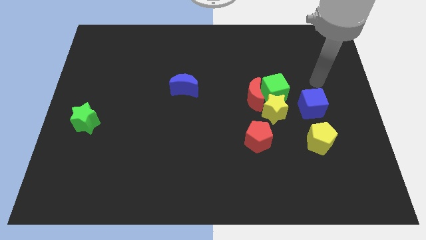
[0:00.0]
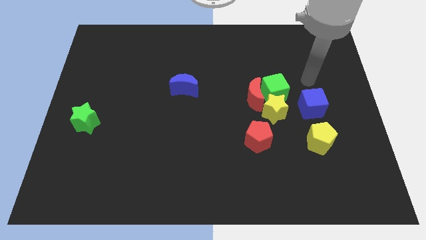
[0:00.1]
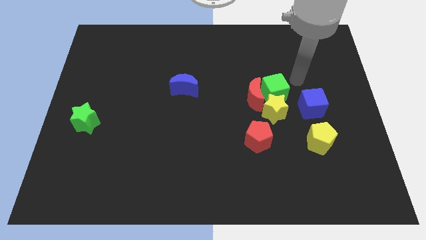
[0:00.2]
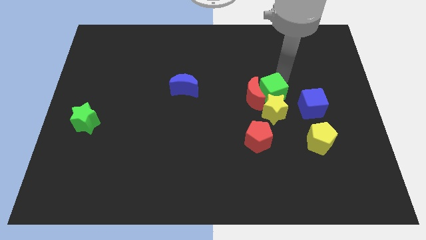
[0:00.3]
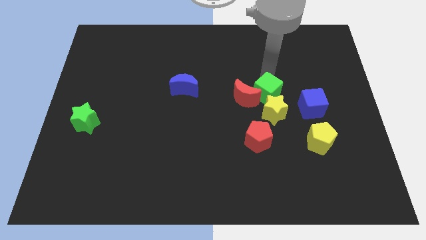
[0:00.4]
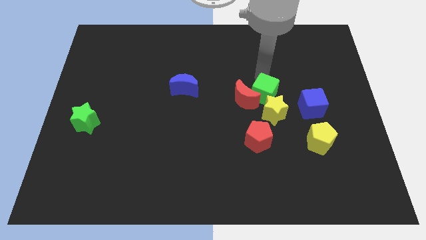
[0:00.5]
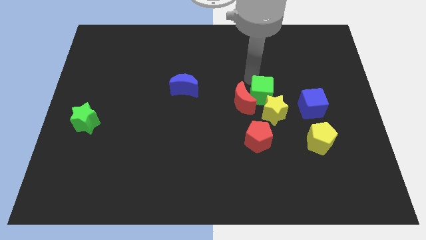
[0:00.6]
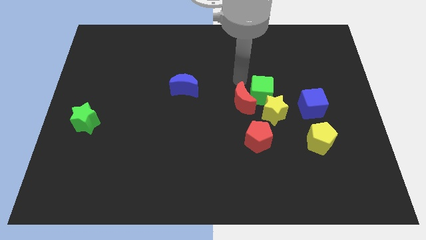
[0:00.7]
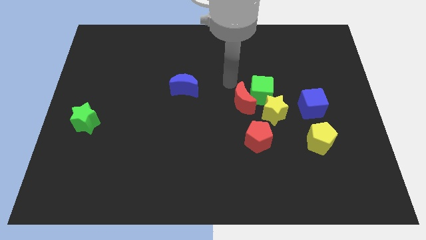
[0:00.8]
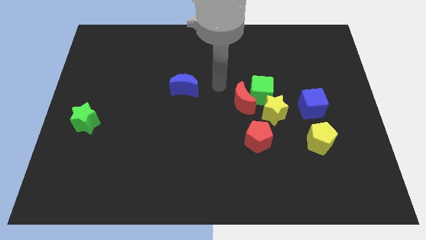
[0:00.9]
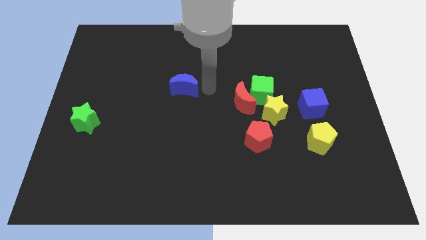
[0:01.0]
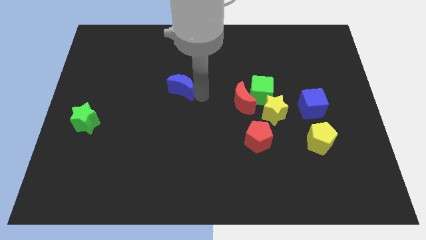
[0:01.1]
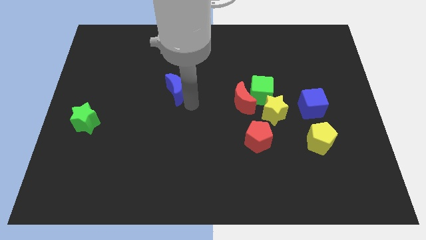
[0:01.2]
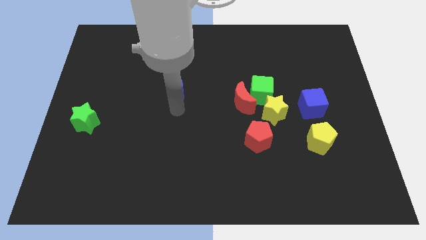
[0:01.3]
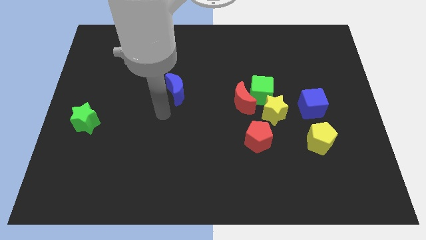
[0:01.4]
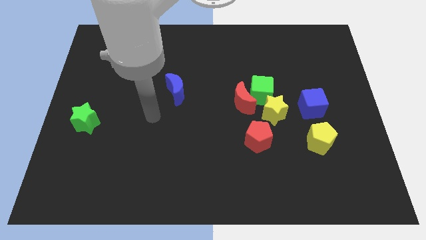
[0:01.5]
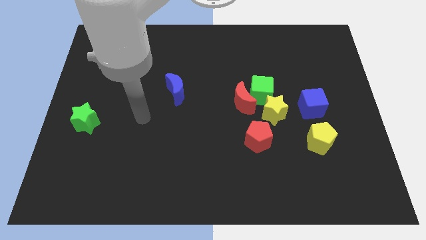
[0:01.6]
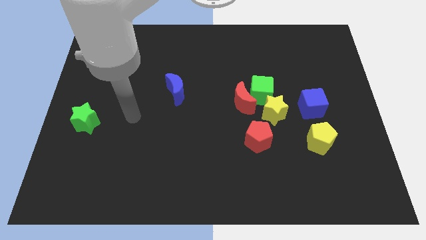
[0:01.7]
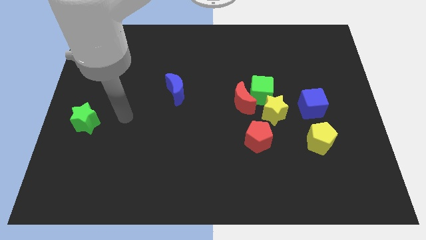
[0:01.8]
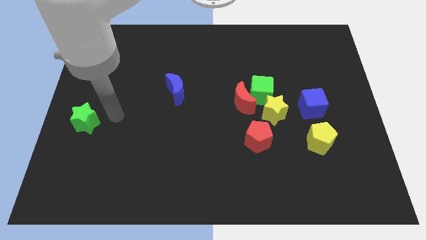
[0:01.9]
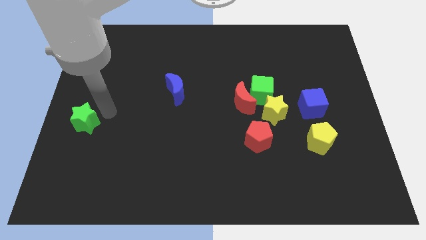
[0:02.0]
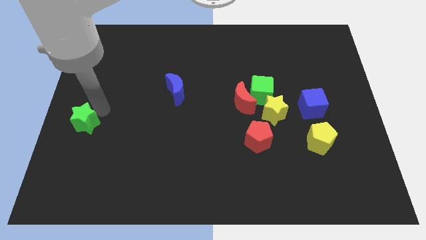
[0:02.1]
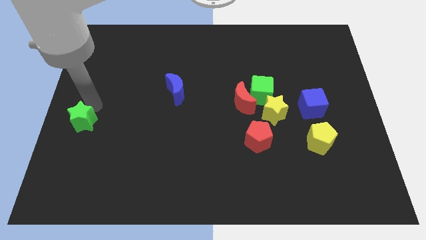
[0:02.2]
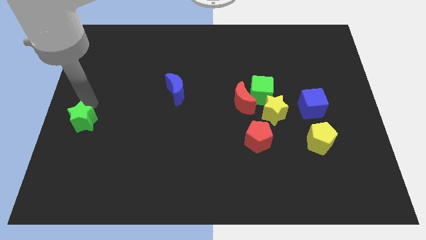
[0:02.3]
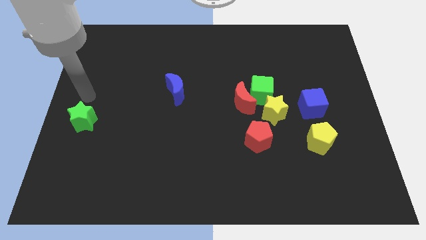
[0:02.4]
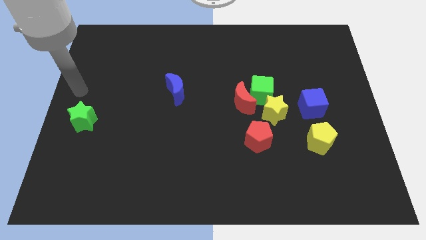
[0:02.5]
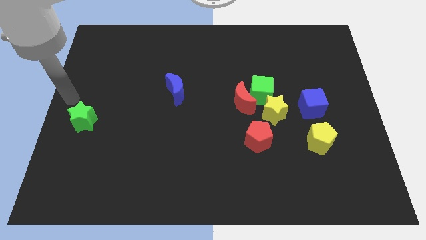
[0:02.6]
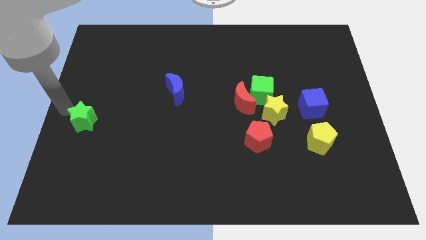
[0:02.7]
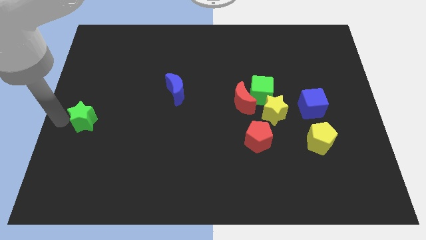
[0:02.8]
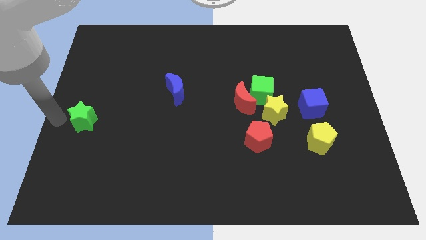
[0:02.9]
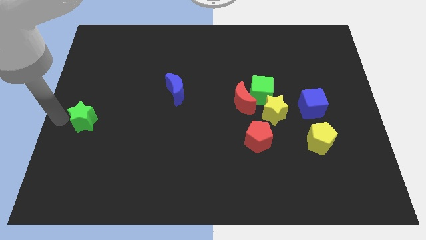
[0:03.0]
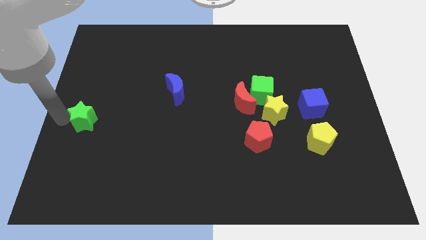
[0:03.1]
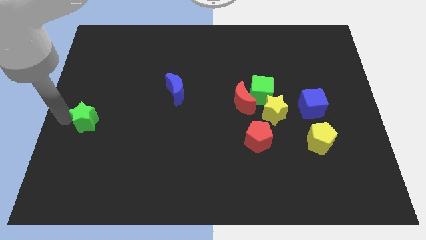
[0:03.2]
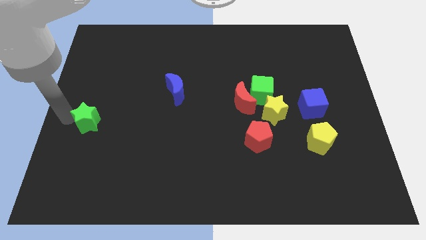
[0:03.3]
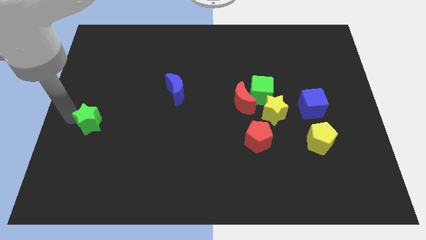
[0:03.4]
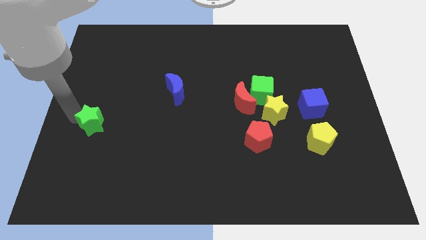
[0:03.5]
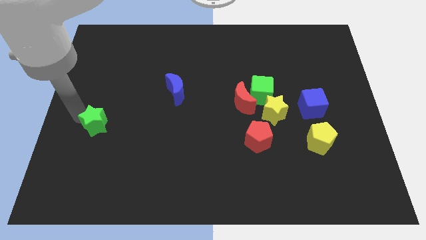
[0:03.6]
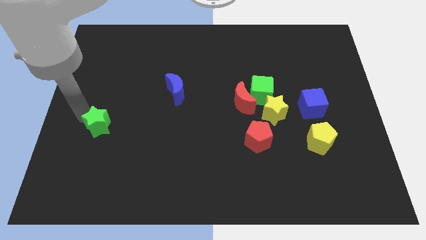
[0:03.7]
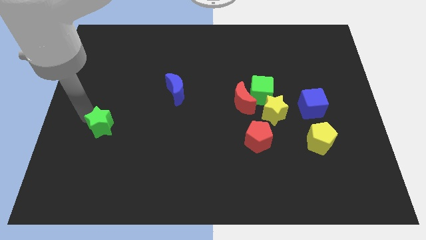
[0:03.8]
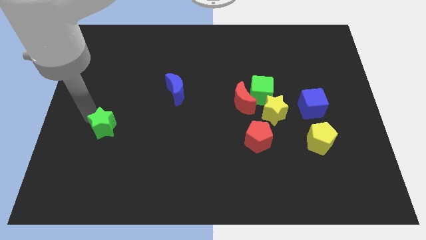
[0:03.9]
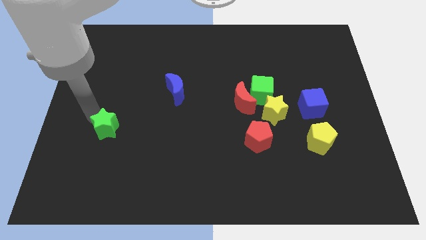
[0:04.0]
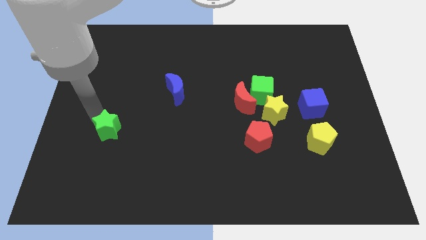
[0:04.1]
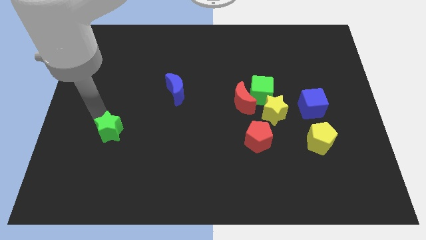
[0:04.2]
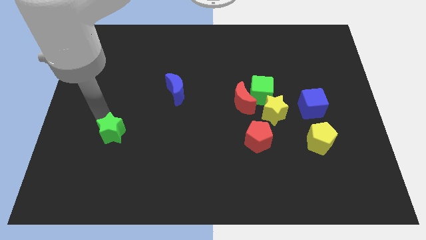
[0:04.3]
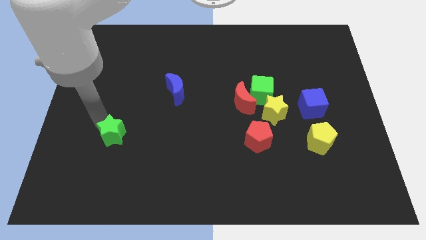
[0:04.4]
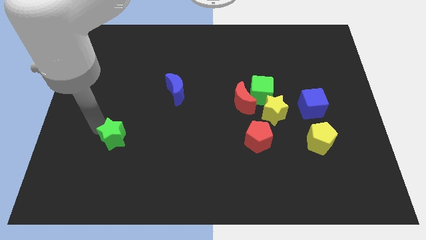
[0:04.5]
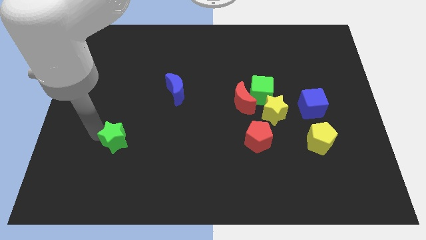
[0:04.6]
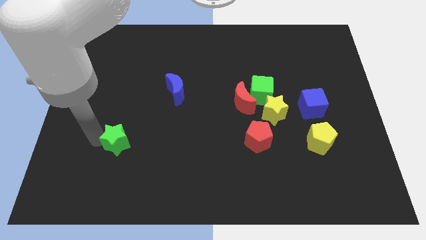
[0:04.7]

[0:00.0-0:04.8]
push the green star a little right

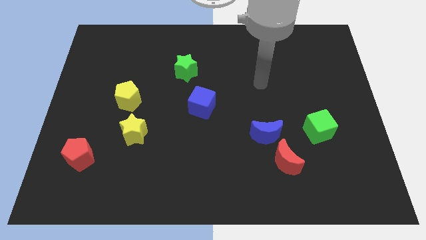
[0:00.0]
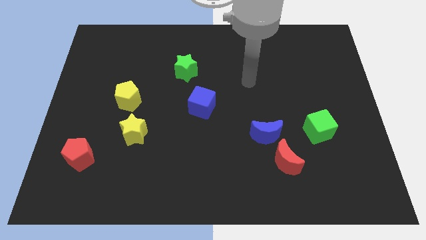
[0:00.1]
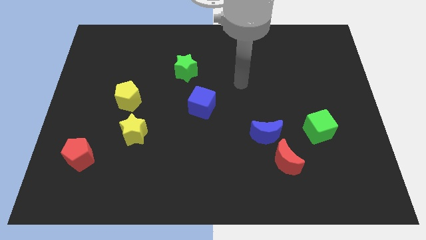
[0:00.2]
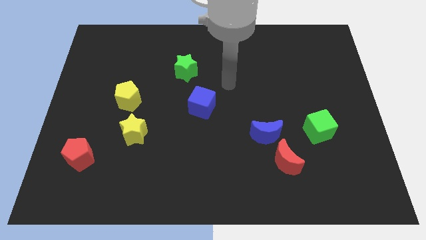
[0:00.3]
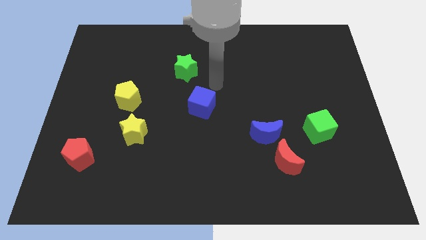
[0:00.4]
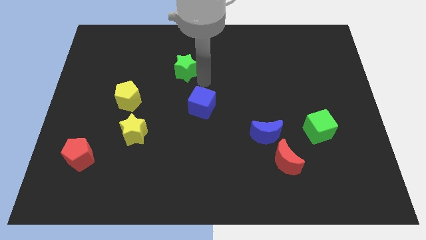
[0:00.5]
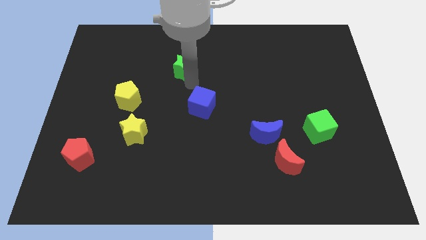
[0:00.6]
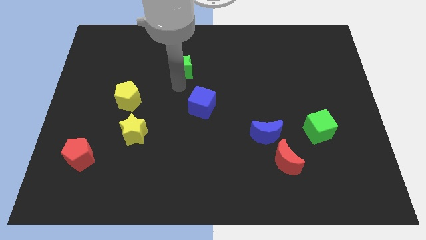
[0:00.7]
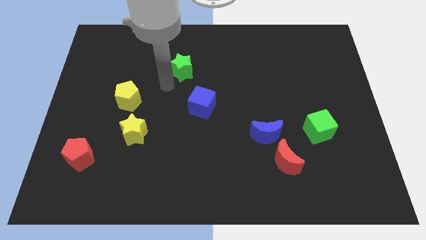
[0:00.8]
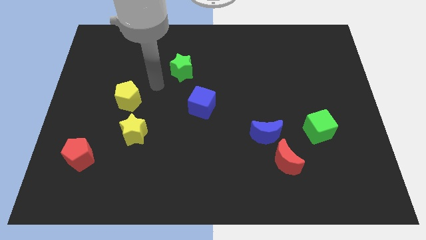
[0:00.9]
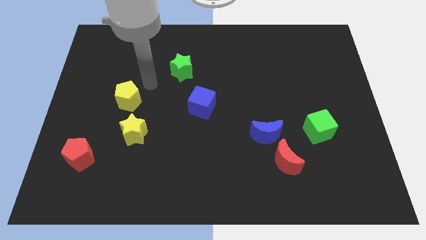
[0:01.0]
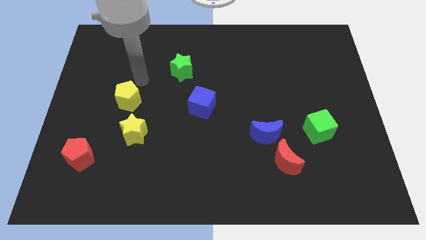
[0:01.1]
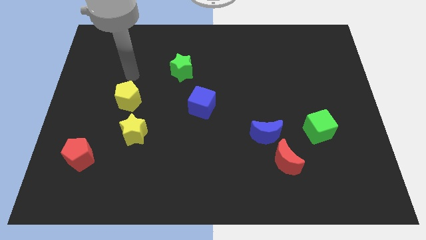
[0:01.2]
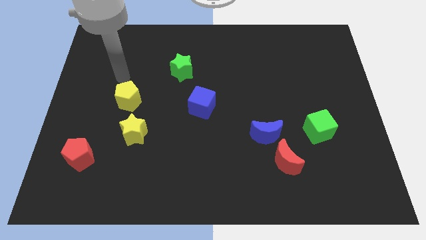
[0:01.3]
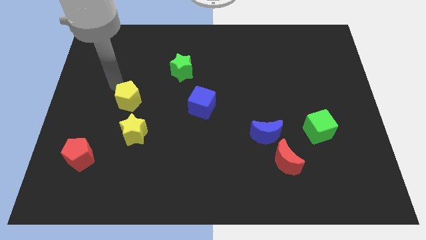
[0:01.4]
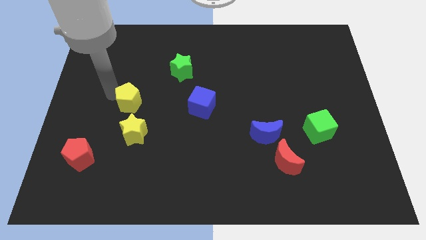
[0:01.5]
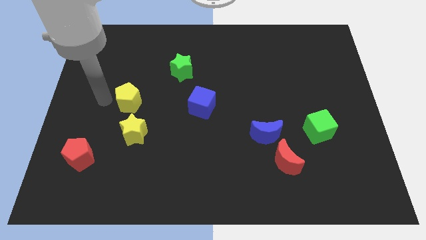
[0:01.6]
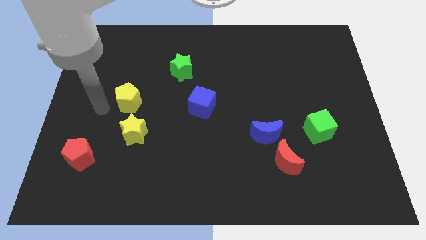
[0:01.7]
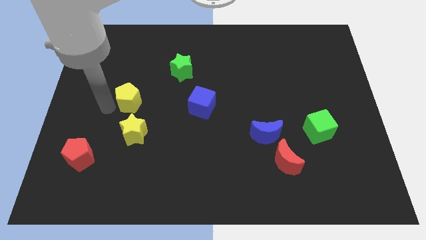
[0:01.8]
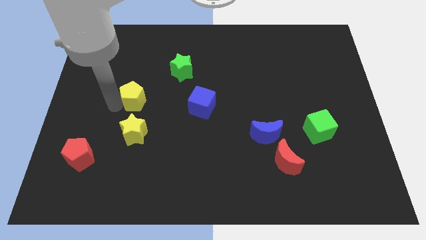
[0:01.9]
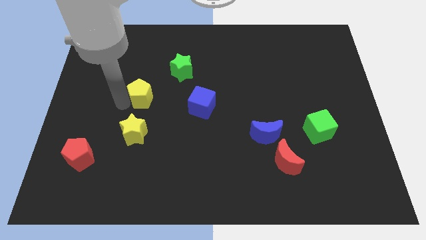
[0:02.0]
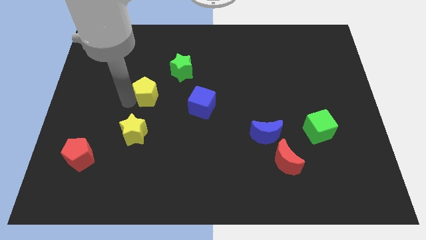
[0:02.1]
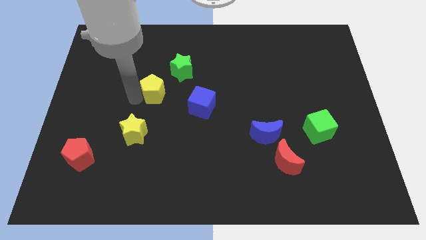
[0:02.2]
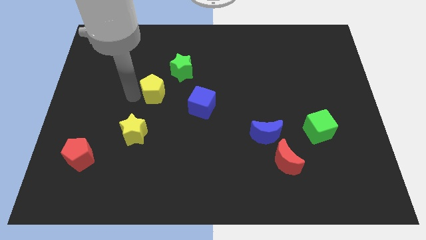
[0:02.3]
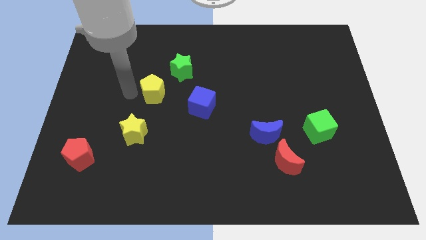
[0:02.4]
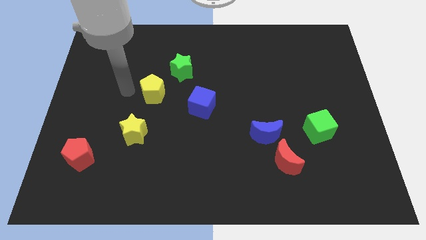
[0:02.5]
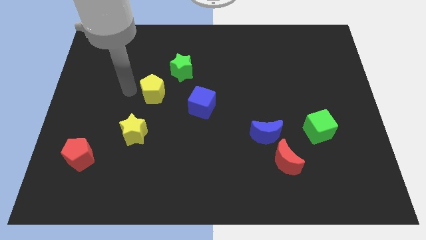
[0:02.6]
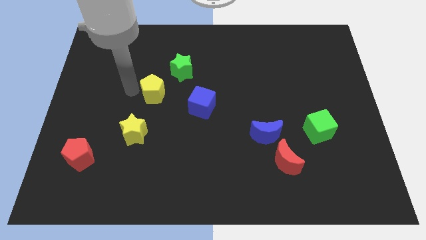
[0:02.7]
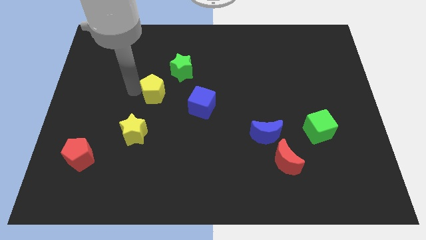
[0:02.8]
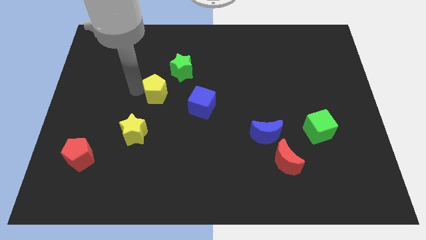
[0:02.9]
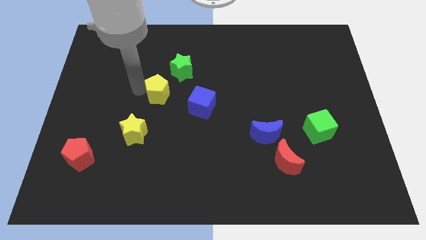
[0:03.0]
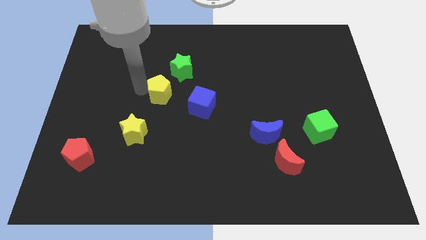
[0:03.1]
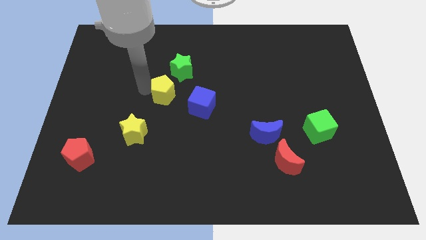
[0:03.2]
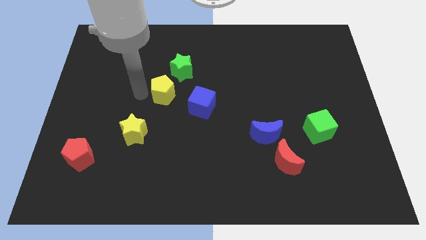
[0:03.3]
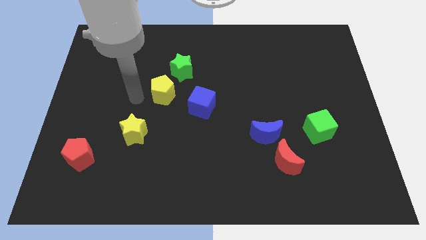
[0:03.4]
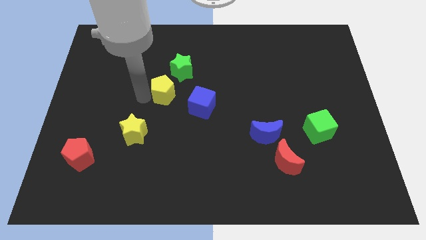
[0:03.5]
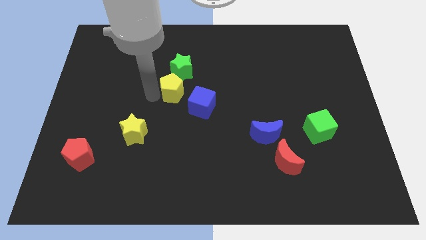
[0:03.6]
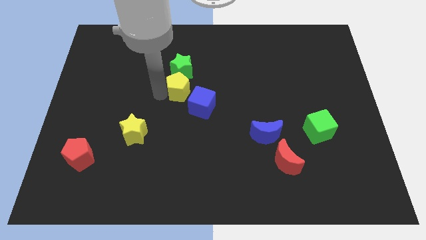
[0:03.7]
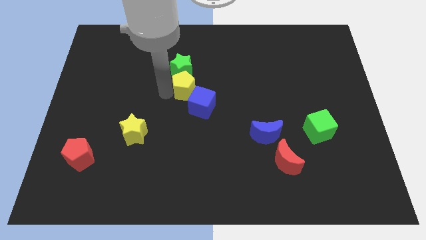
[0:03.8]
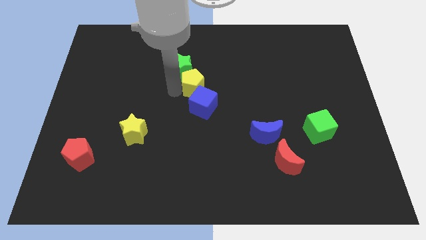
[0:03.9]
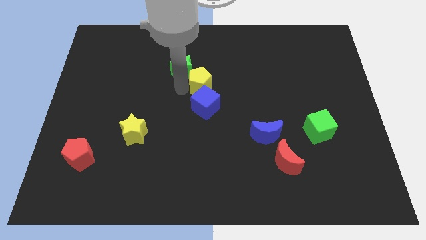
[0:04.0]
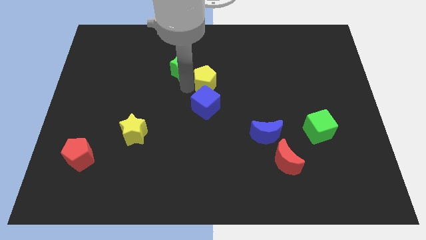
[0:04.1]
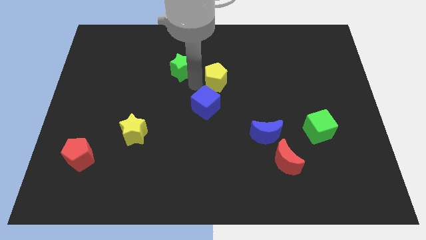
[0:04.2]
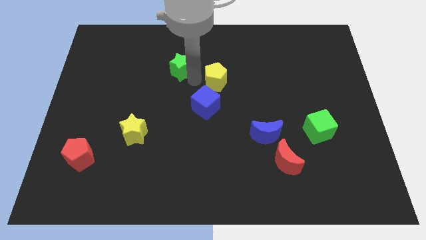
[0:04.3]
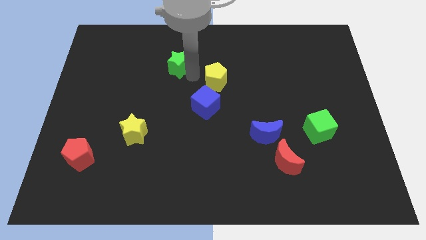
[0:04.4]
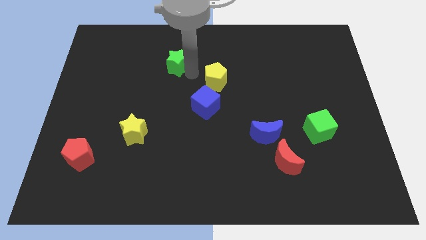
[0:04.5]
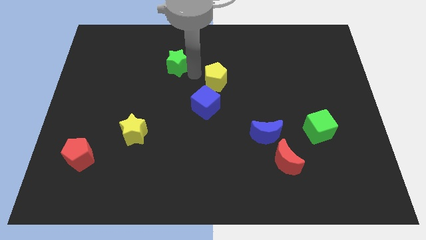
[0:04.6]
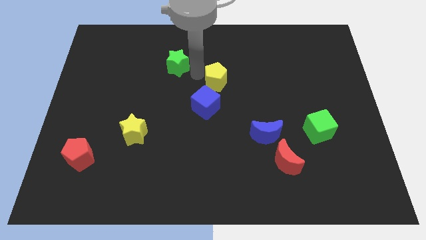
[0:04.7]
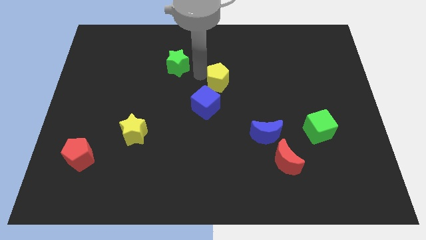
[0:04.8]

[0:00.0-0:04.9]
slide the yellow pentagon right
